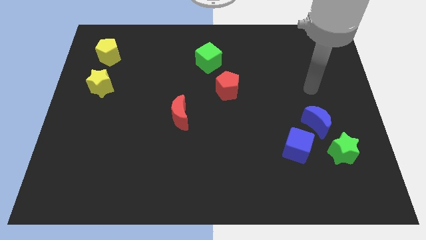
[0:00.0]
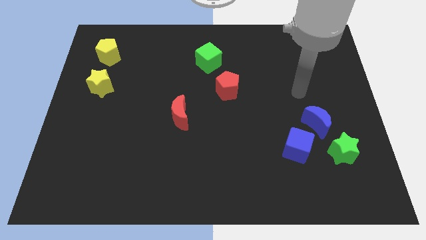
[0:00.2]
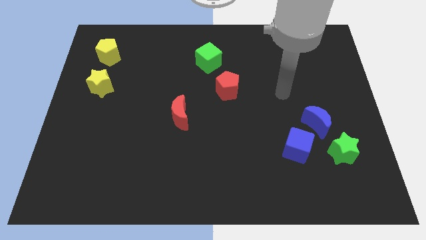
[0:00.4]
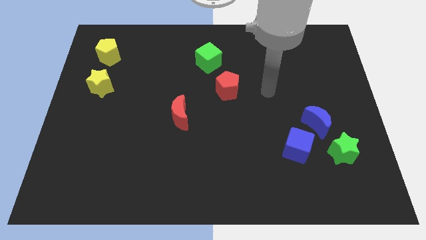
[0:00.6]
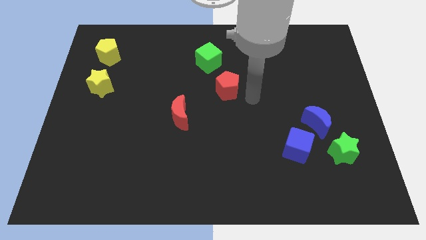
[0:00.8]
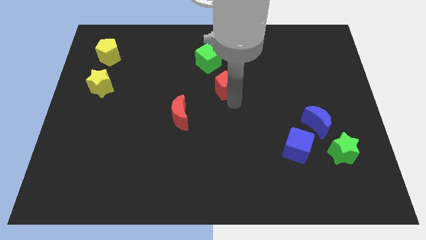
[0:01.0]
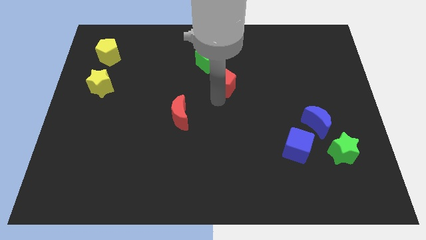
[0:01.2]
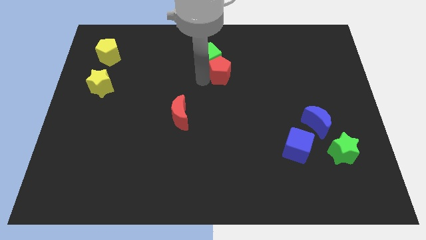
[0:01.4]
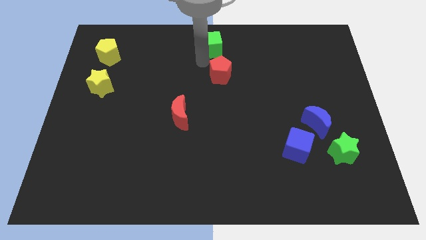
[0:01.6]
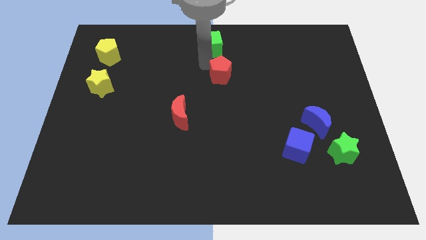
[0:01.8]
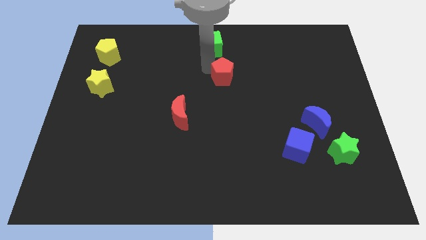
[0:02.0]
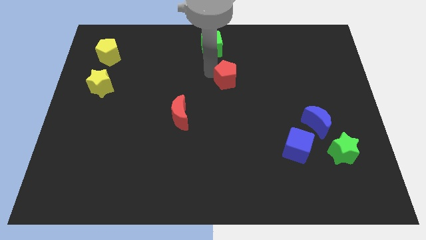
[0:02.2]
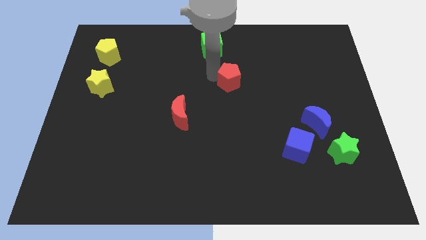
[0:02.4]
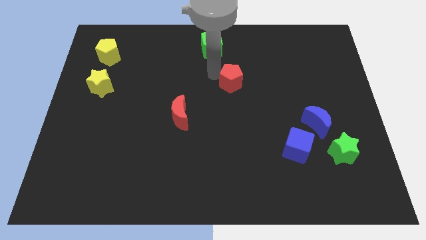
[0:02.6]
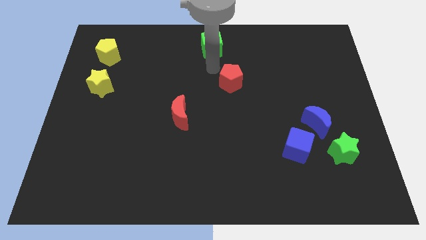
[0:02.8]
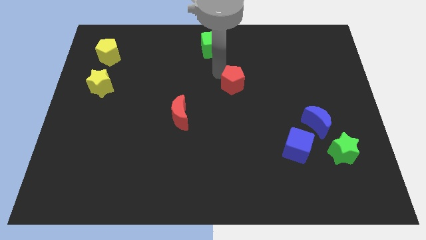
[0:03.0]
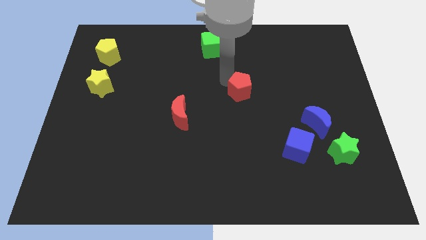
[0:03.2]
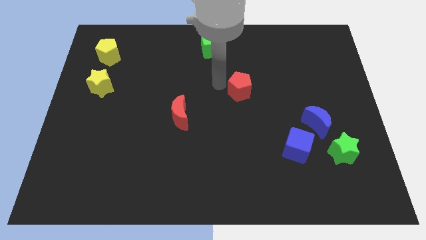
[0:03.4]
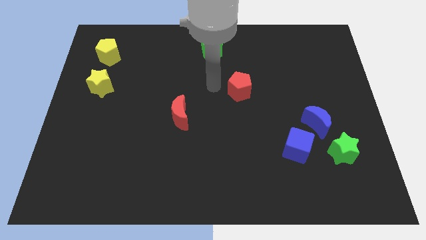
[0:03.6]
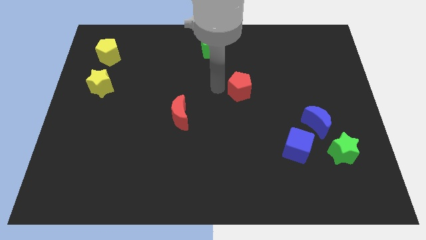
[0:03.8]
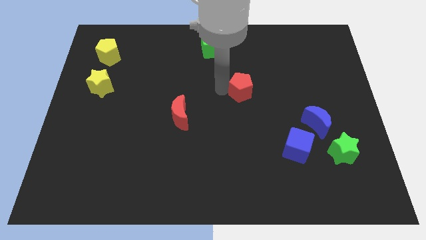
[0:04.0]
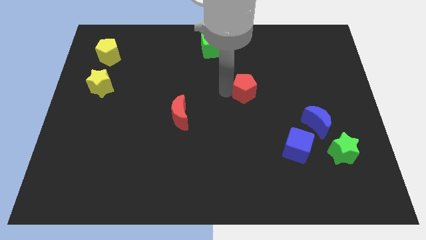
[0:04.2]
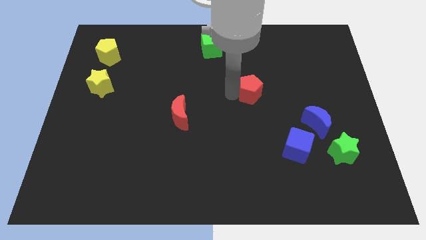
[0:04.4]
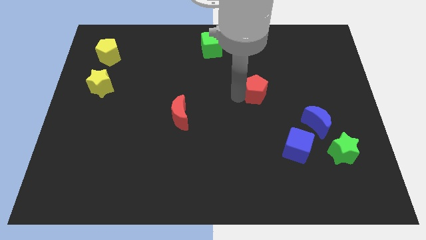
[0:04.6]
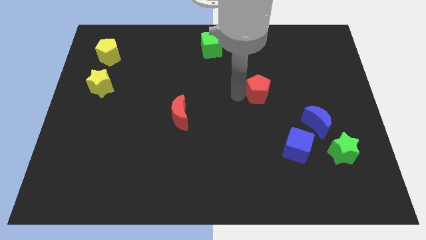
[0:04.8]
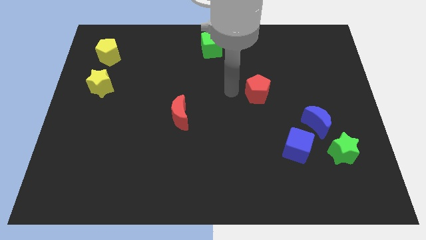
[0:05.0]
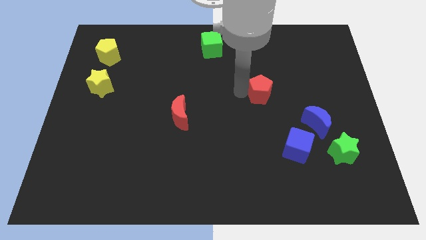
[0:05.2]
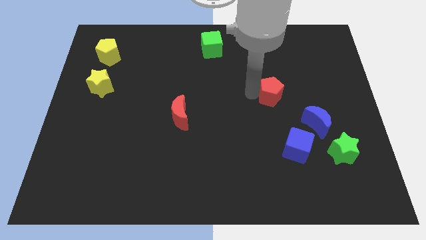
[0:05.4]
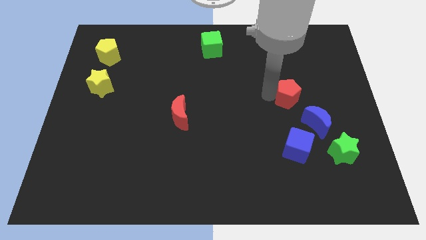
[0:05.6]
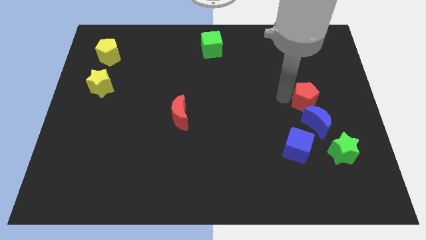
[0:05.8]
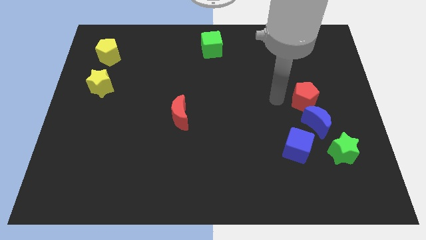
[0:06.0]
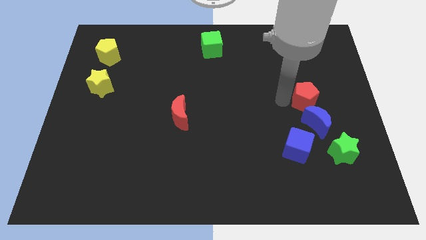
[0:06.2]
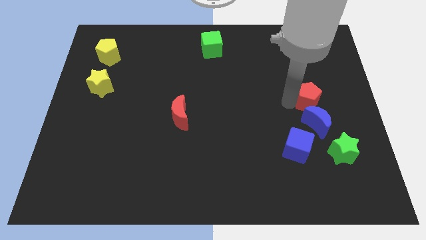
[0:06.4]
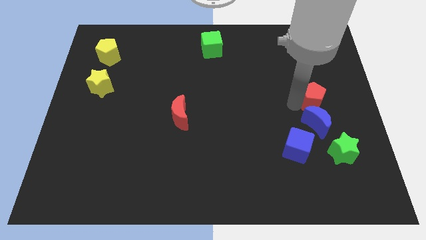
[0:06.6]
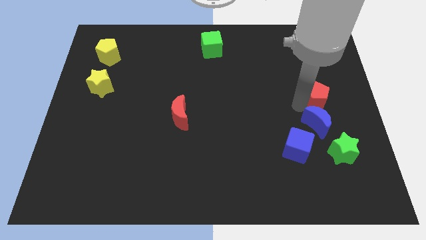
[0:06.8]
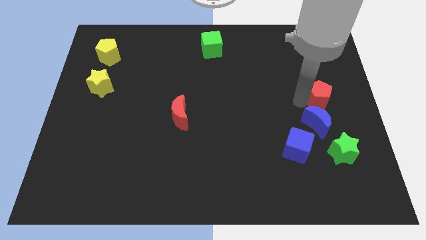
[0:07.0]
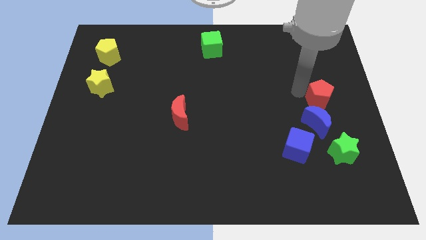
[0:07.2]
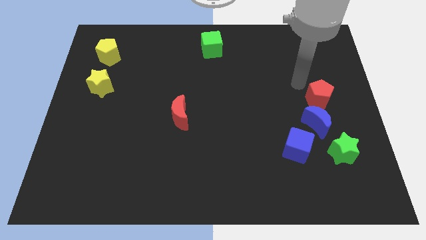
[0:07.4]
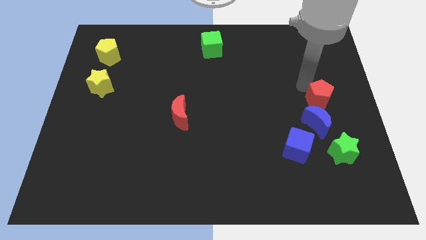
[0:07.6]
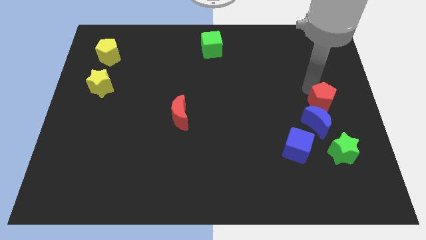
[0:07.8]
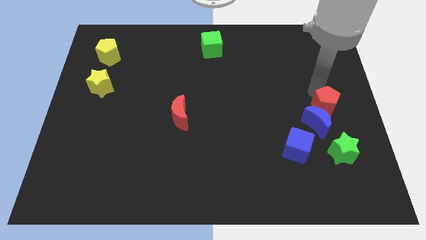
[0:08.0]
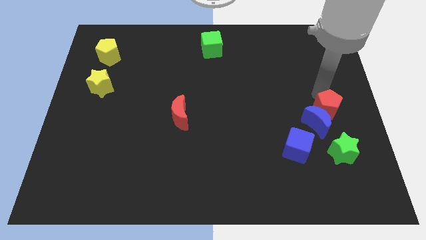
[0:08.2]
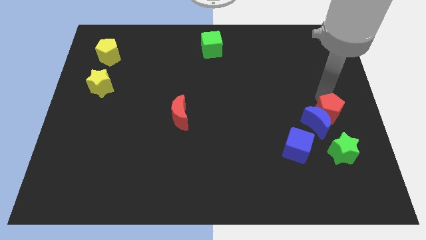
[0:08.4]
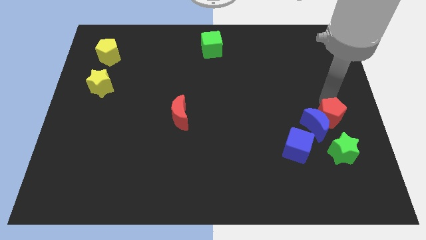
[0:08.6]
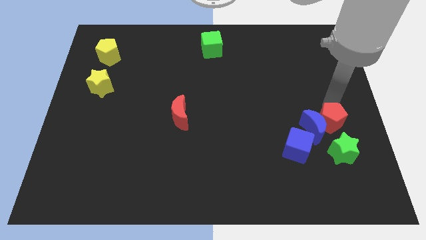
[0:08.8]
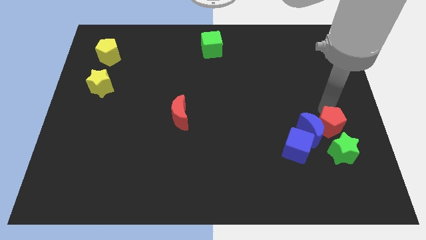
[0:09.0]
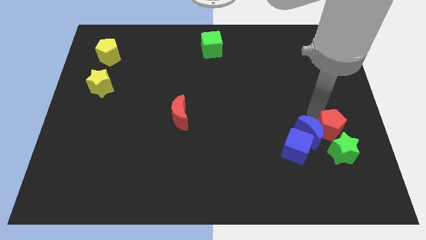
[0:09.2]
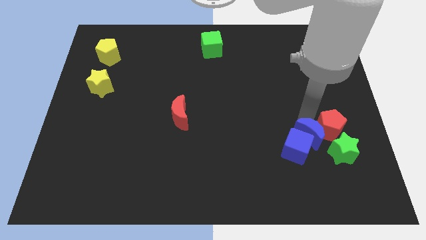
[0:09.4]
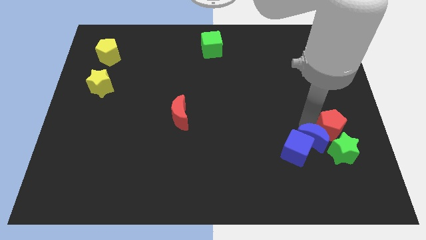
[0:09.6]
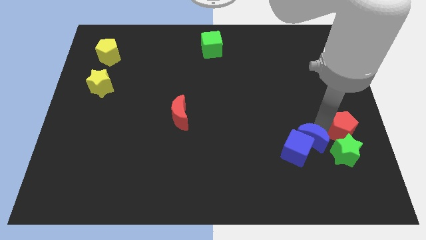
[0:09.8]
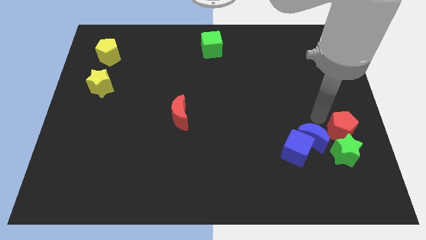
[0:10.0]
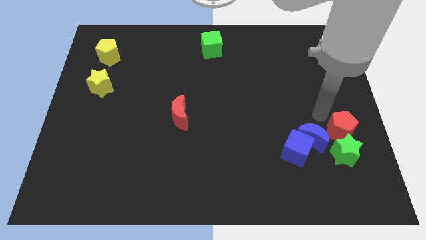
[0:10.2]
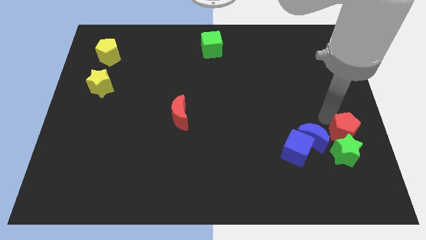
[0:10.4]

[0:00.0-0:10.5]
move the red pentagon right of the blue cube

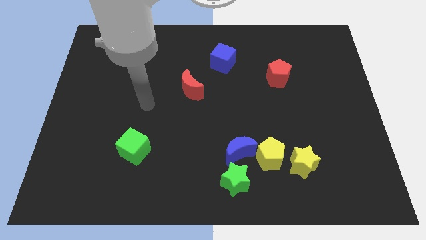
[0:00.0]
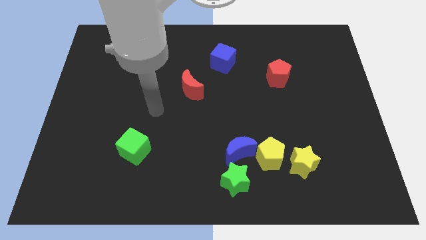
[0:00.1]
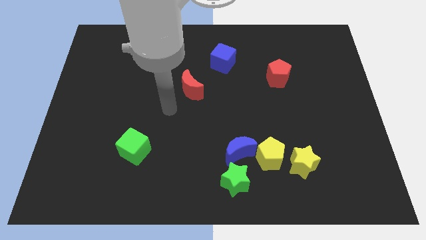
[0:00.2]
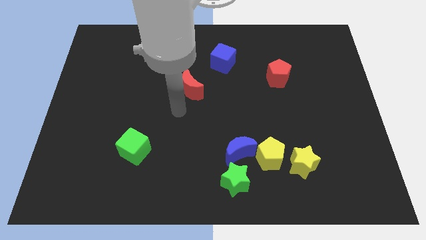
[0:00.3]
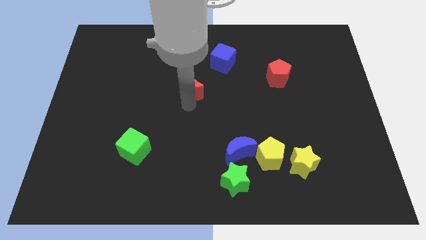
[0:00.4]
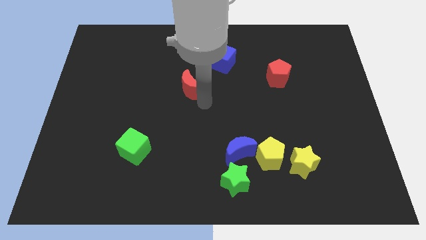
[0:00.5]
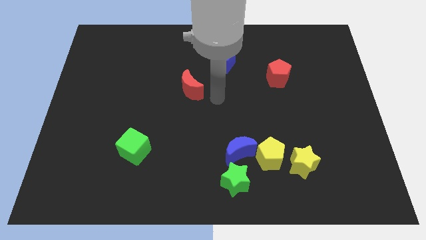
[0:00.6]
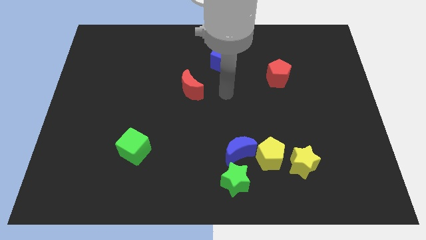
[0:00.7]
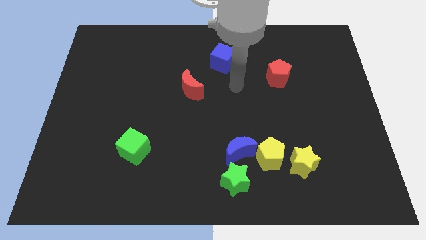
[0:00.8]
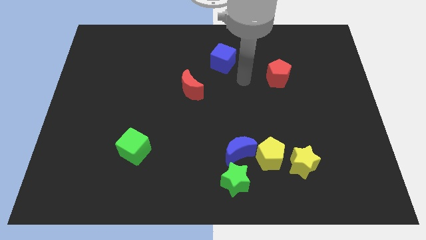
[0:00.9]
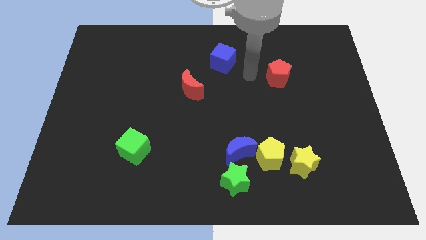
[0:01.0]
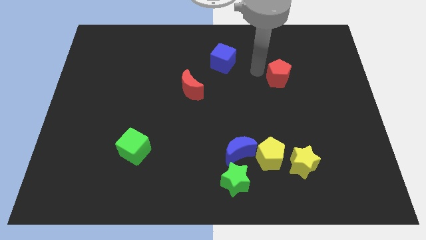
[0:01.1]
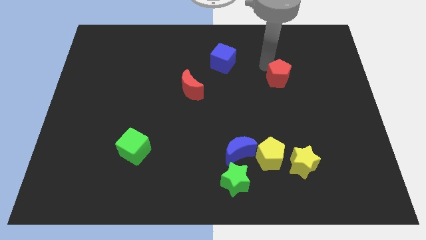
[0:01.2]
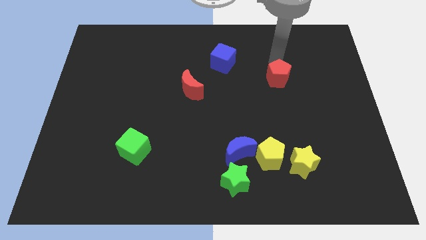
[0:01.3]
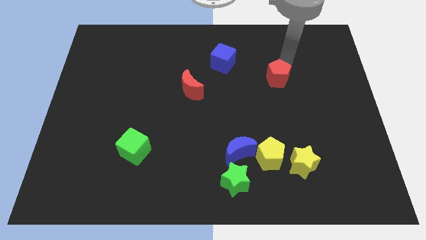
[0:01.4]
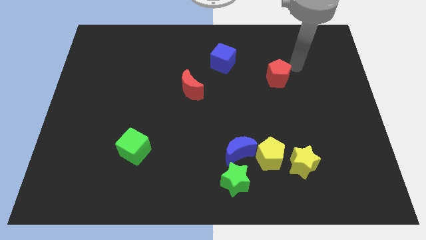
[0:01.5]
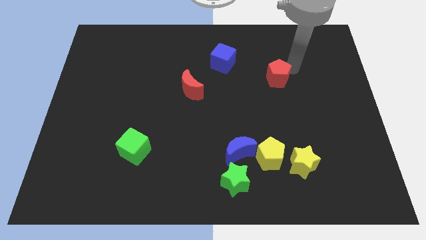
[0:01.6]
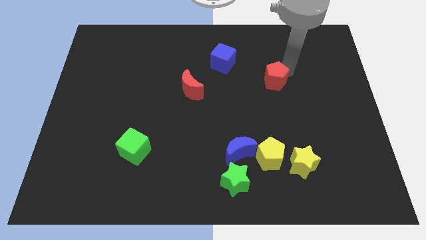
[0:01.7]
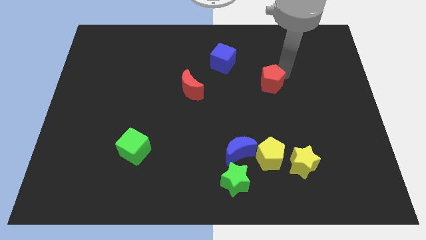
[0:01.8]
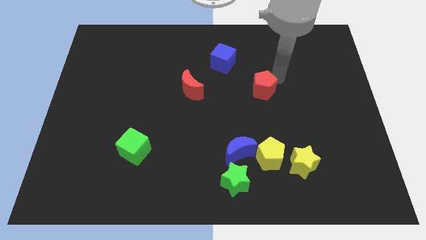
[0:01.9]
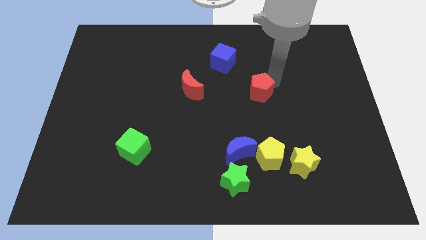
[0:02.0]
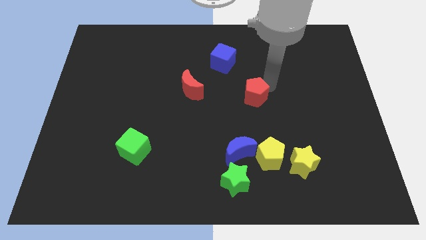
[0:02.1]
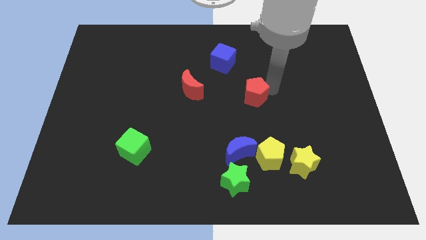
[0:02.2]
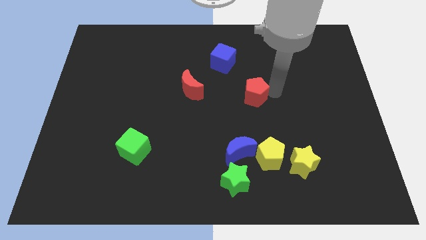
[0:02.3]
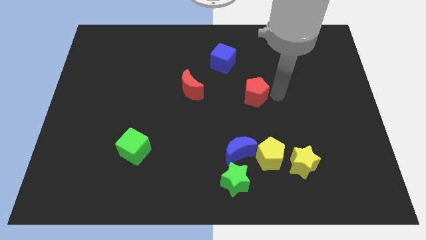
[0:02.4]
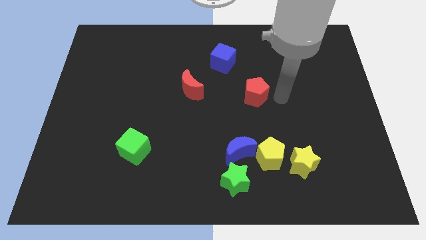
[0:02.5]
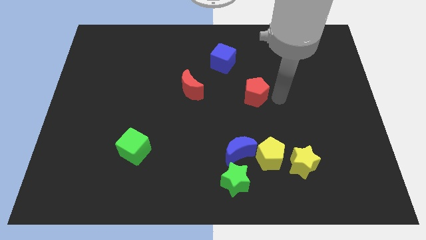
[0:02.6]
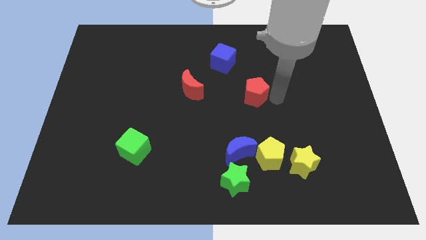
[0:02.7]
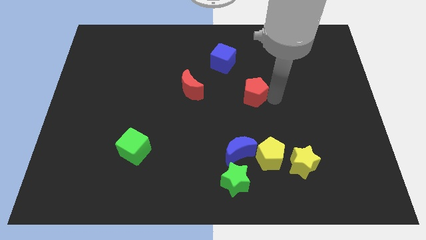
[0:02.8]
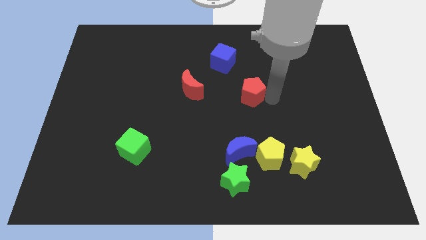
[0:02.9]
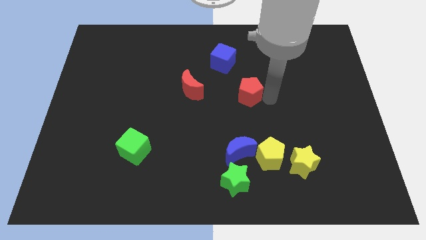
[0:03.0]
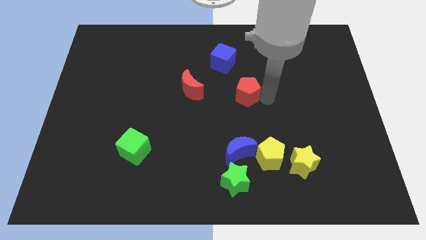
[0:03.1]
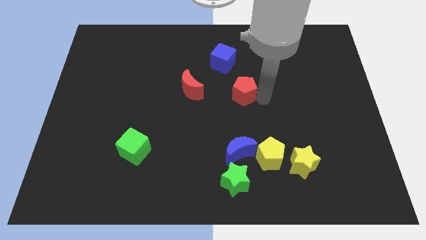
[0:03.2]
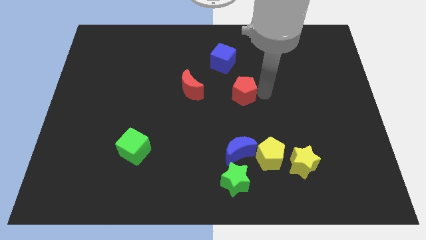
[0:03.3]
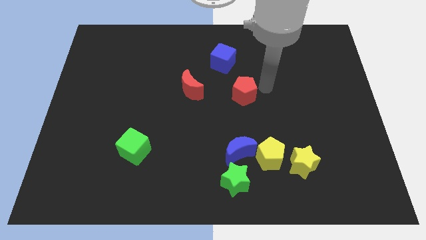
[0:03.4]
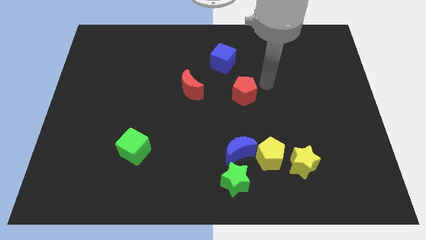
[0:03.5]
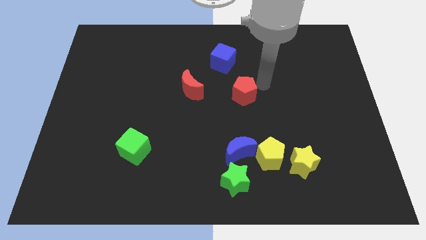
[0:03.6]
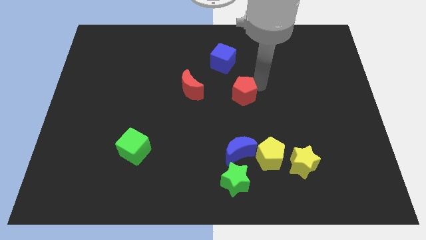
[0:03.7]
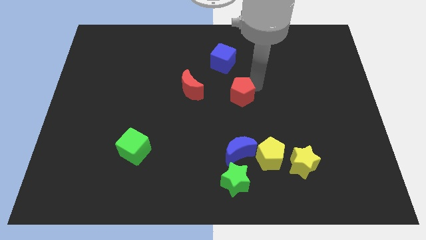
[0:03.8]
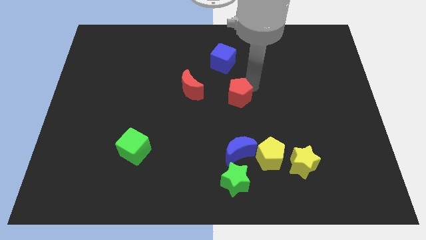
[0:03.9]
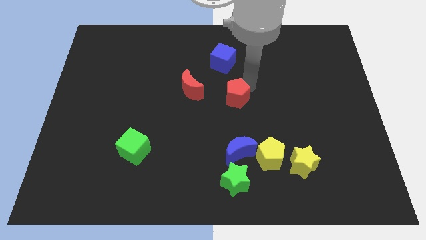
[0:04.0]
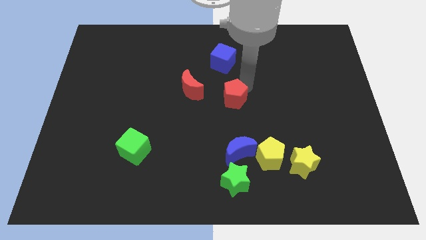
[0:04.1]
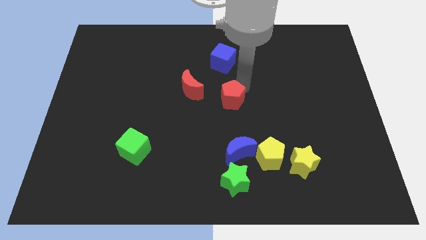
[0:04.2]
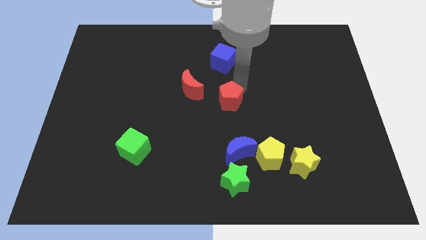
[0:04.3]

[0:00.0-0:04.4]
put the red pentagon diagonally down and to the right of the red moon
